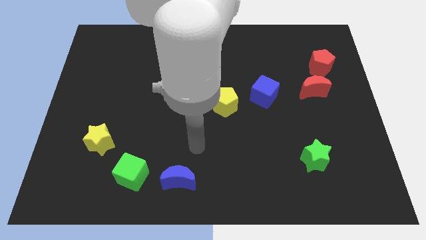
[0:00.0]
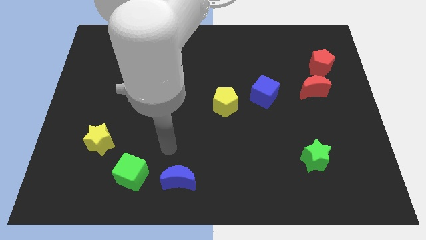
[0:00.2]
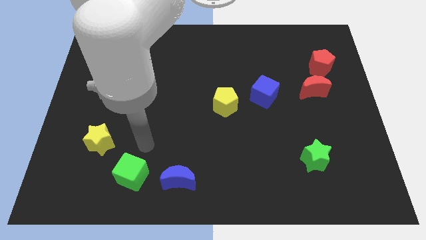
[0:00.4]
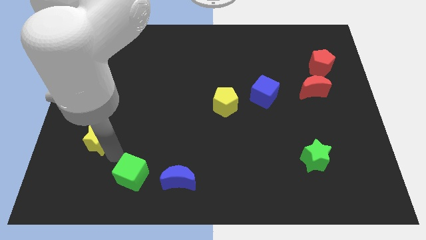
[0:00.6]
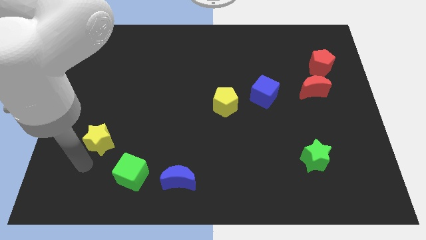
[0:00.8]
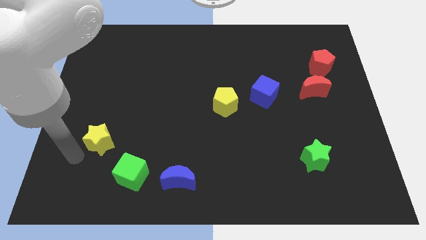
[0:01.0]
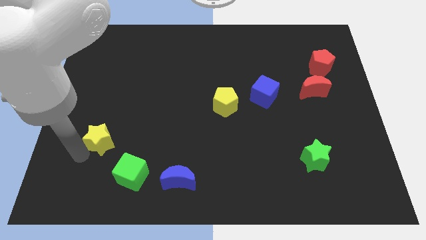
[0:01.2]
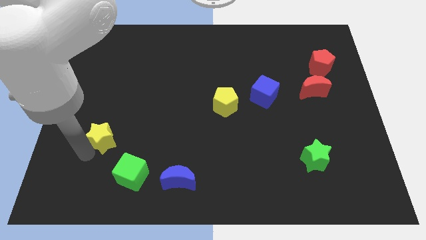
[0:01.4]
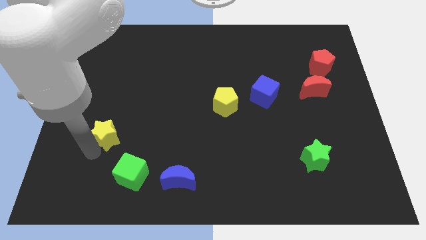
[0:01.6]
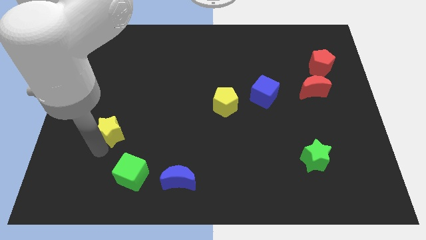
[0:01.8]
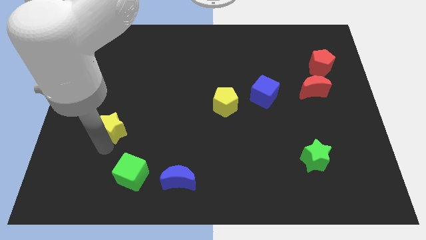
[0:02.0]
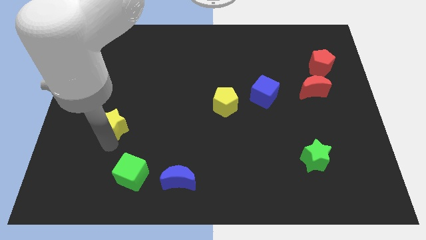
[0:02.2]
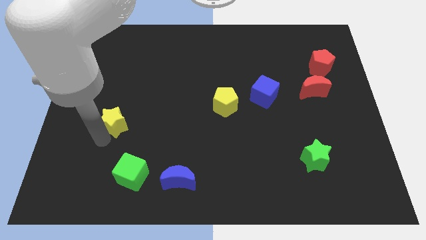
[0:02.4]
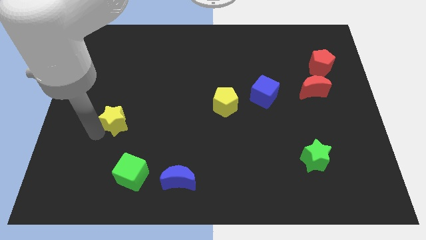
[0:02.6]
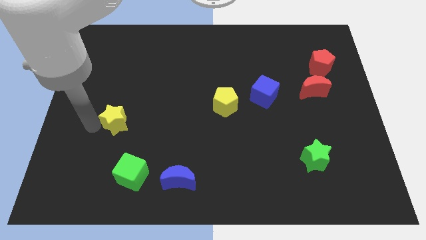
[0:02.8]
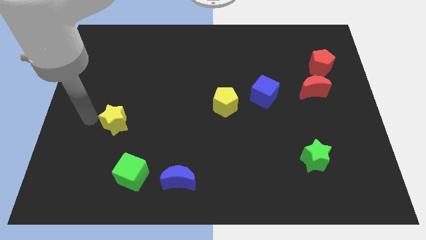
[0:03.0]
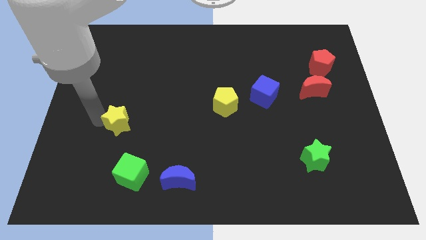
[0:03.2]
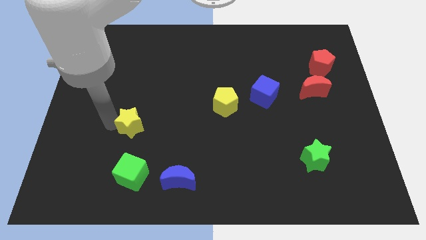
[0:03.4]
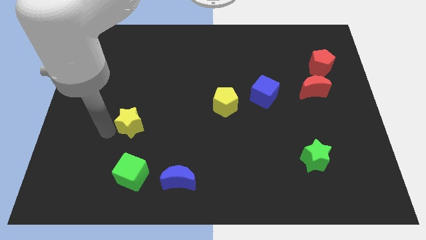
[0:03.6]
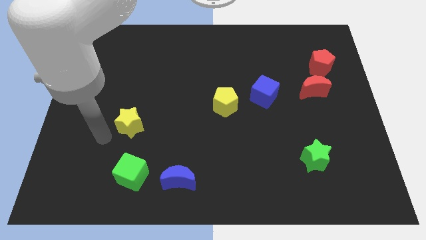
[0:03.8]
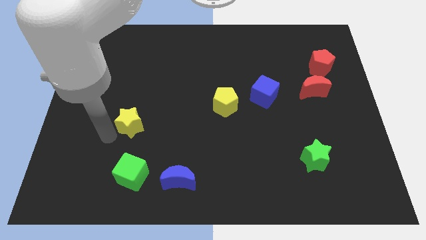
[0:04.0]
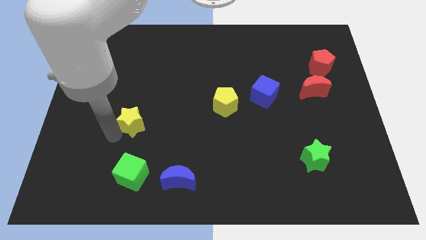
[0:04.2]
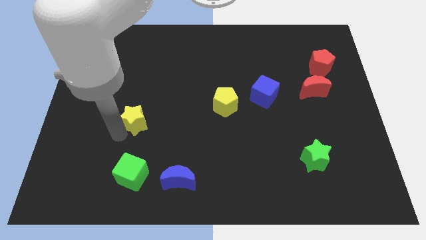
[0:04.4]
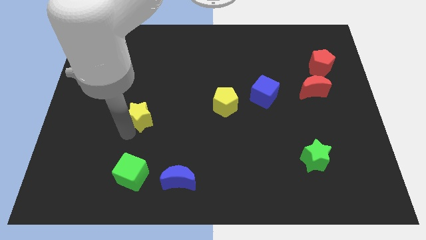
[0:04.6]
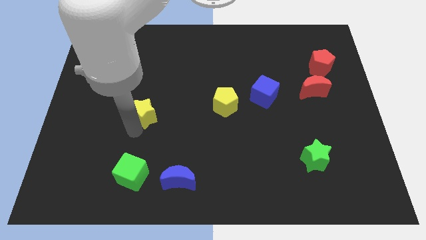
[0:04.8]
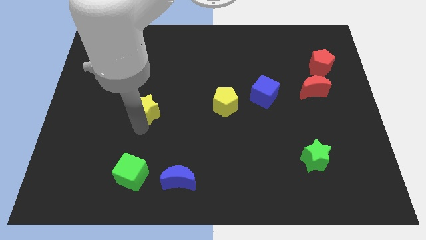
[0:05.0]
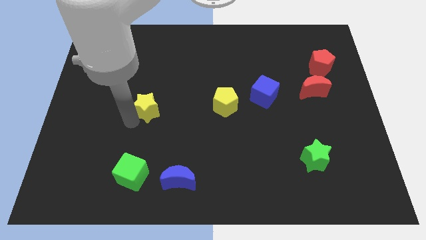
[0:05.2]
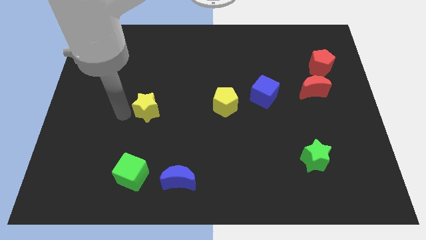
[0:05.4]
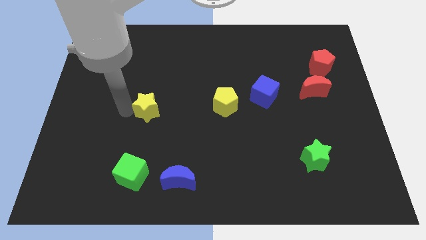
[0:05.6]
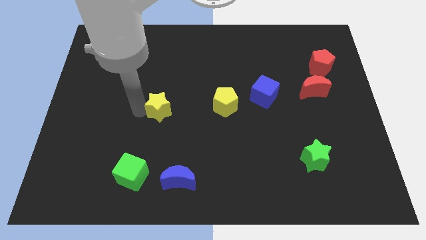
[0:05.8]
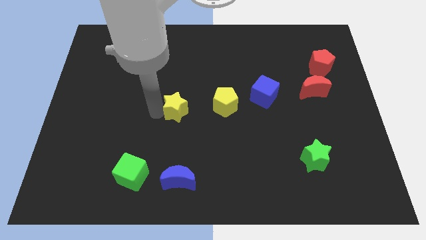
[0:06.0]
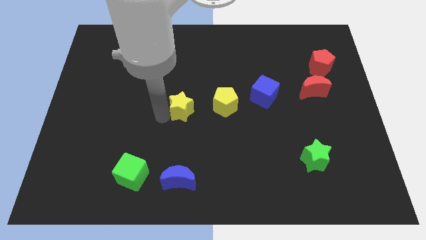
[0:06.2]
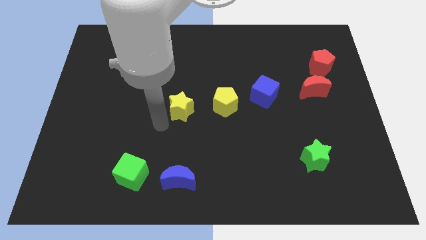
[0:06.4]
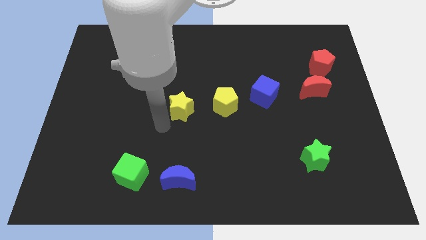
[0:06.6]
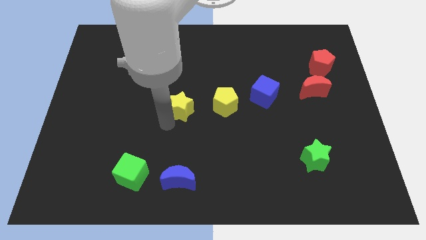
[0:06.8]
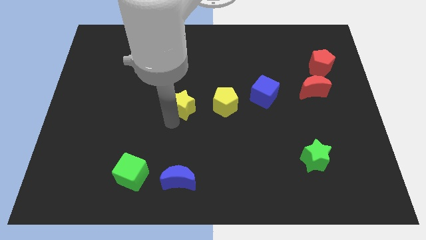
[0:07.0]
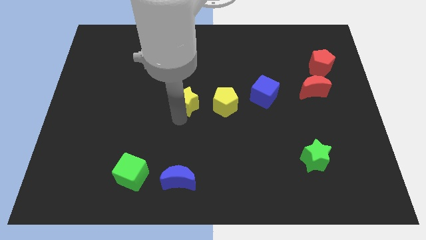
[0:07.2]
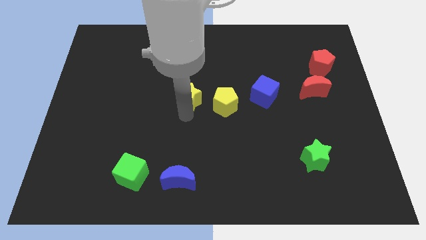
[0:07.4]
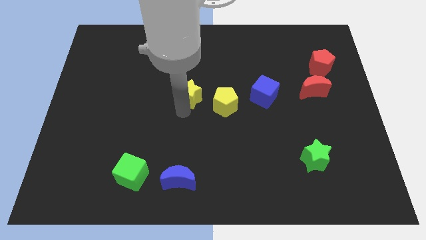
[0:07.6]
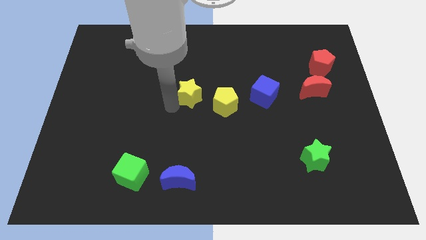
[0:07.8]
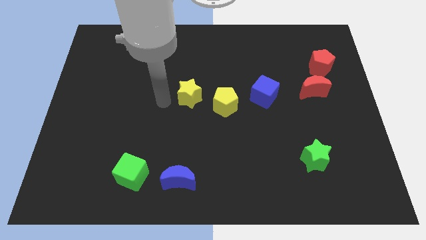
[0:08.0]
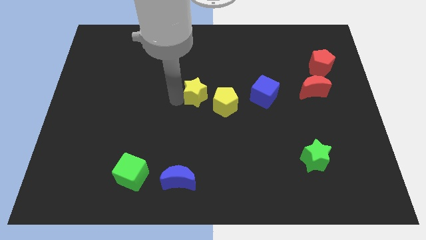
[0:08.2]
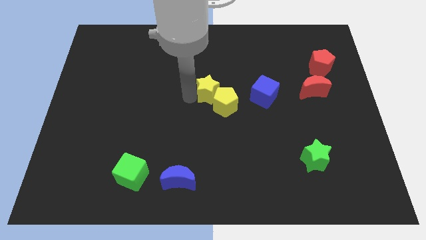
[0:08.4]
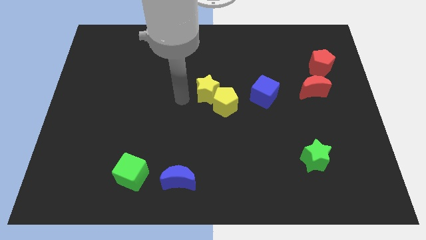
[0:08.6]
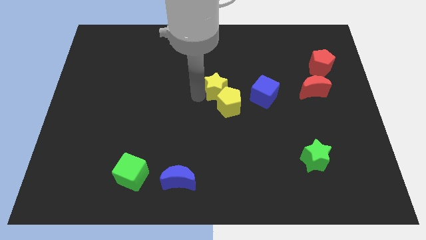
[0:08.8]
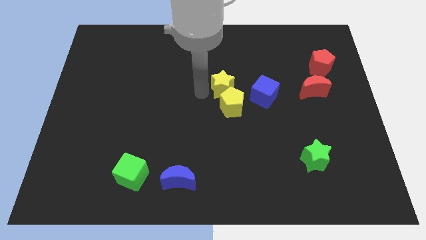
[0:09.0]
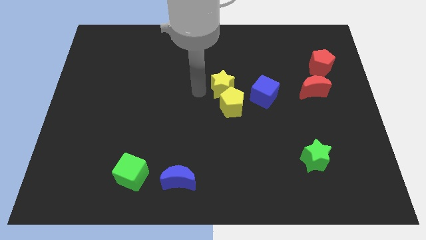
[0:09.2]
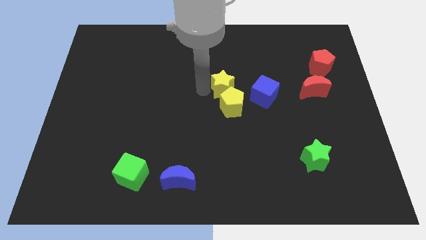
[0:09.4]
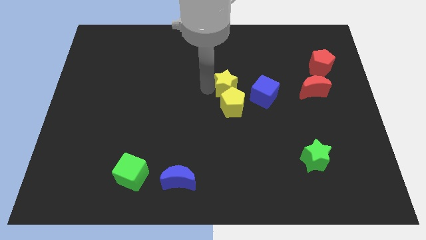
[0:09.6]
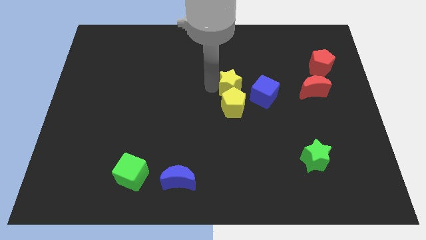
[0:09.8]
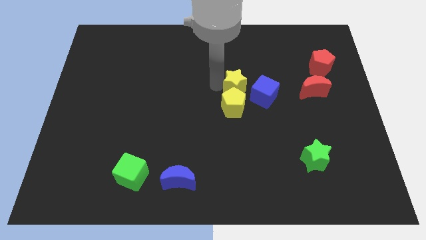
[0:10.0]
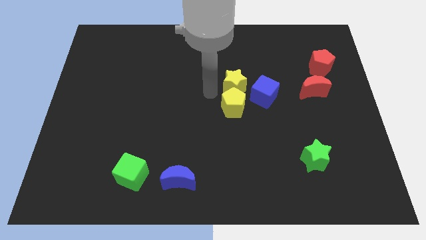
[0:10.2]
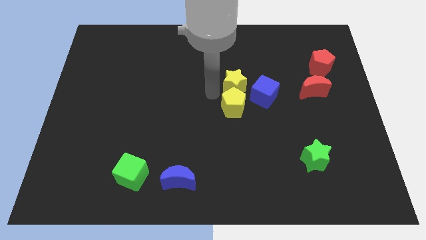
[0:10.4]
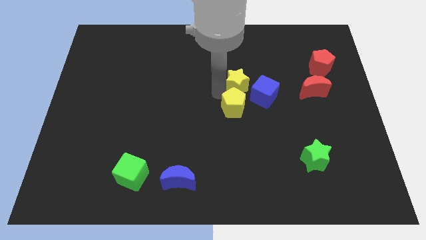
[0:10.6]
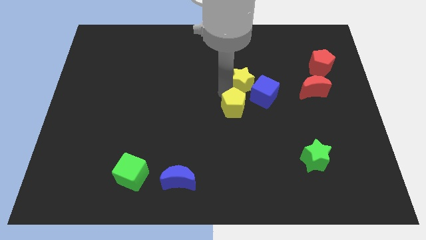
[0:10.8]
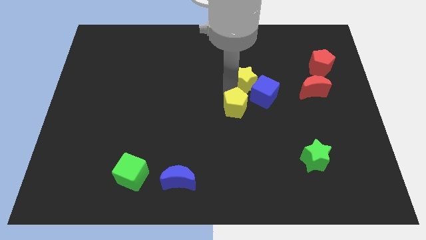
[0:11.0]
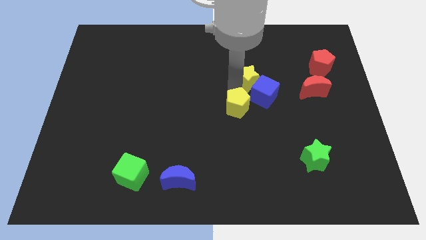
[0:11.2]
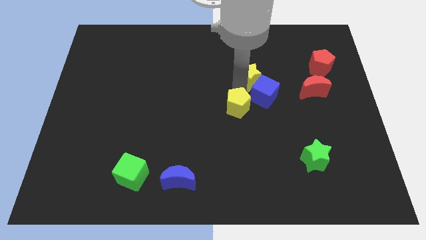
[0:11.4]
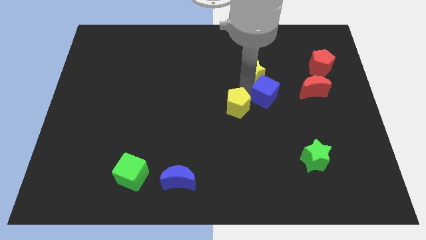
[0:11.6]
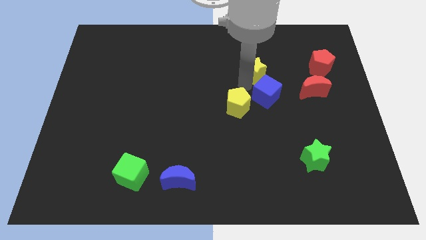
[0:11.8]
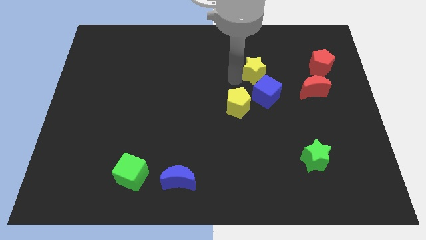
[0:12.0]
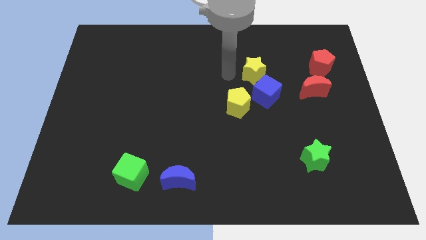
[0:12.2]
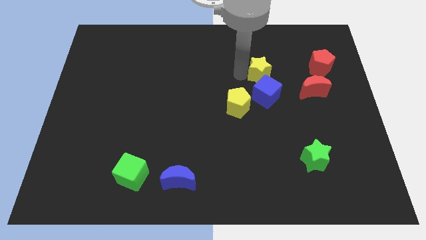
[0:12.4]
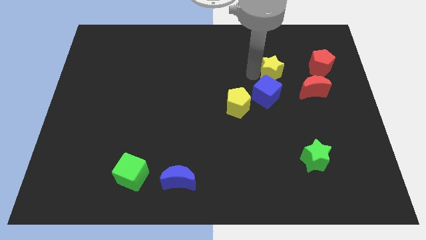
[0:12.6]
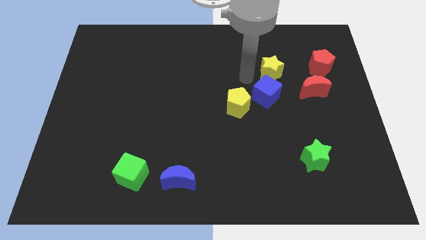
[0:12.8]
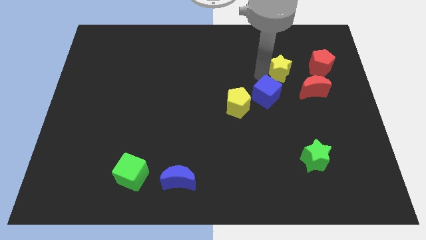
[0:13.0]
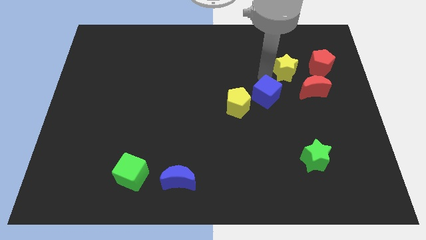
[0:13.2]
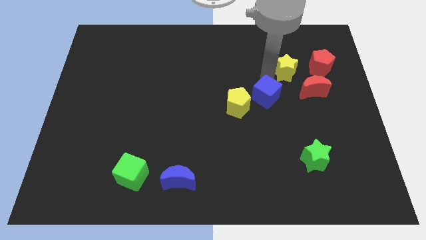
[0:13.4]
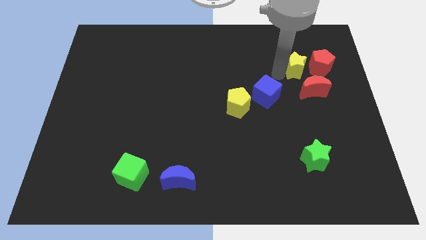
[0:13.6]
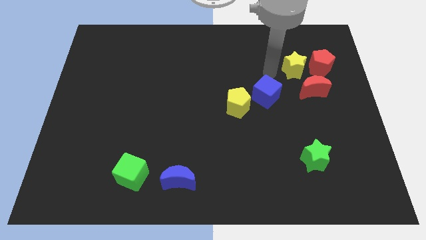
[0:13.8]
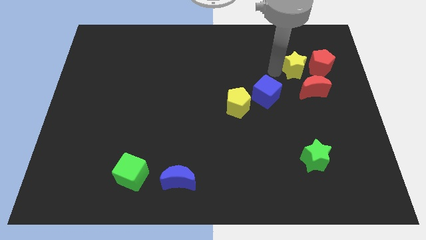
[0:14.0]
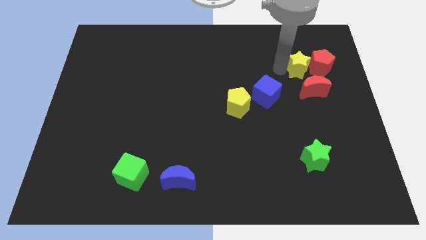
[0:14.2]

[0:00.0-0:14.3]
move the yellow star to the red pentagon
